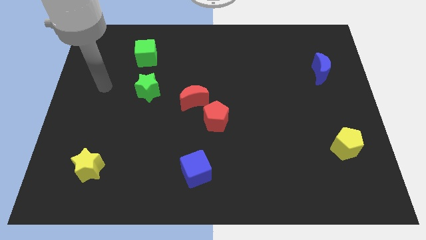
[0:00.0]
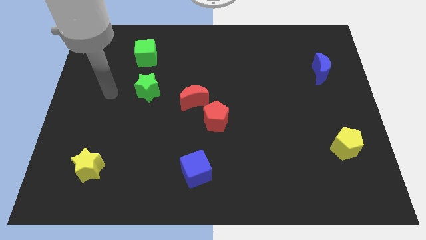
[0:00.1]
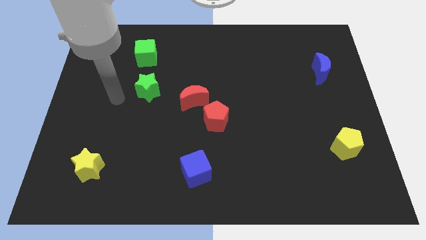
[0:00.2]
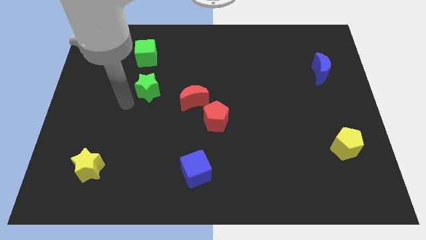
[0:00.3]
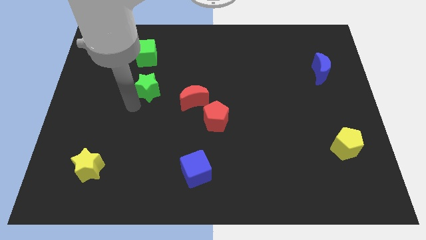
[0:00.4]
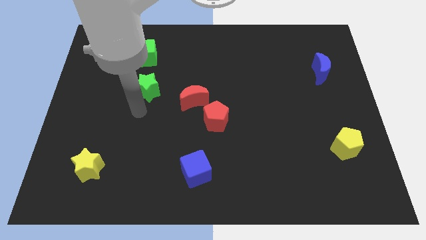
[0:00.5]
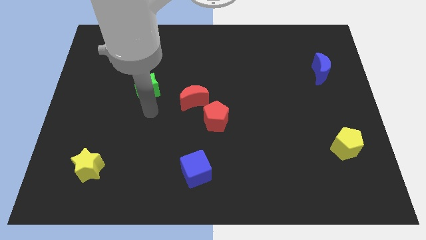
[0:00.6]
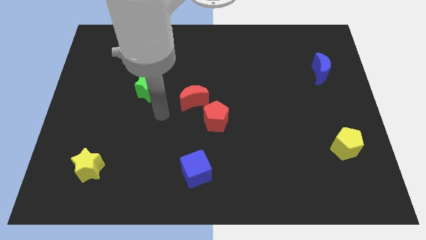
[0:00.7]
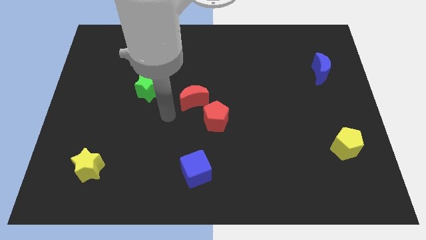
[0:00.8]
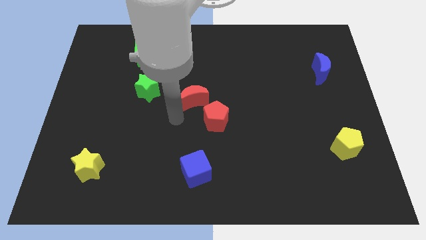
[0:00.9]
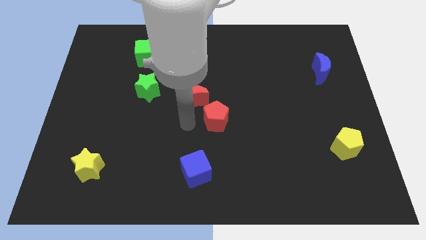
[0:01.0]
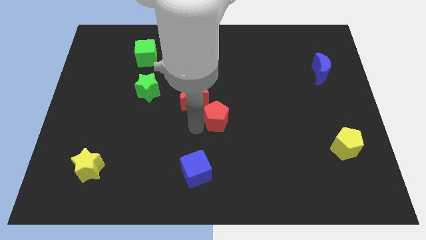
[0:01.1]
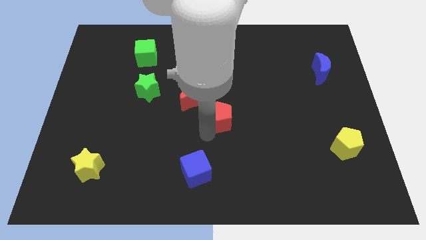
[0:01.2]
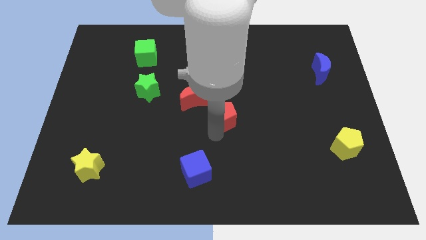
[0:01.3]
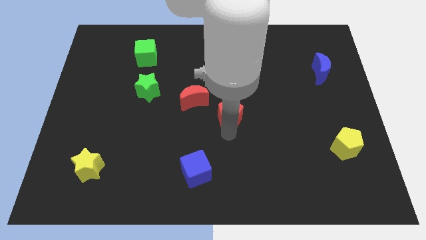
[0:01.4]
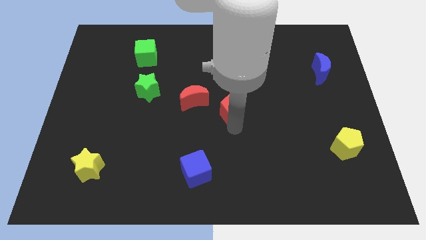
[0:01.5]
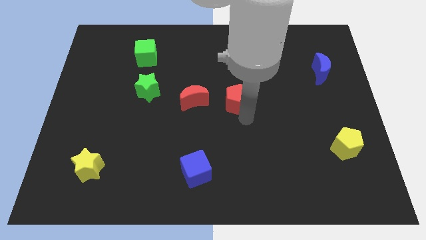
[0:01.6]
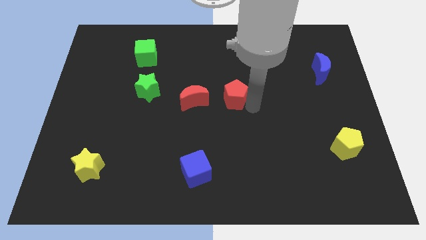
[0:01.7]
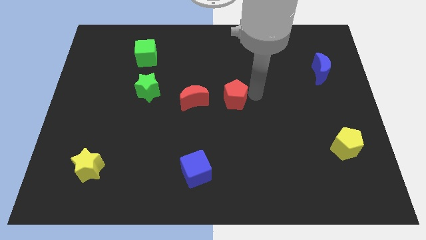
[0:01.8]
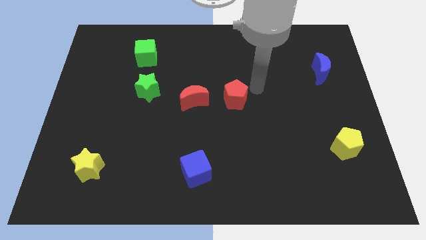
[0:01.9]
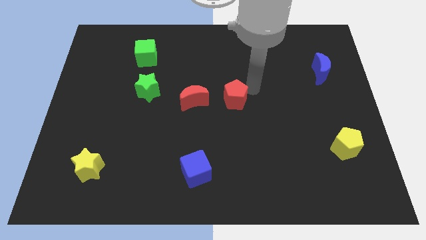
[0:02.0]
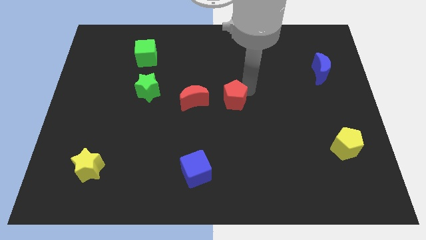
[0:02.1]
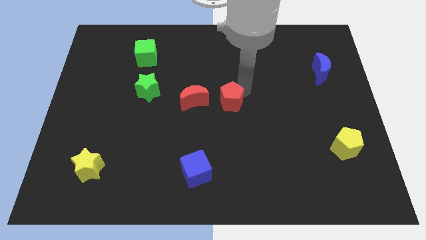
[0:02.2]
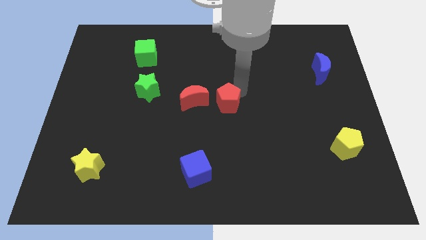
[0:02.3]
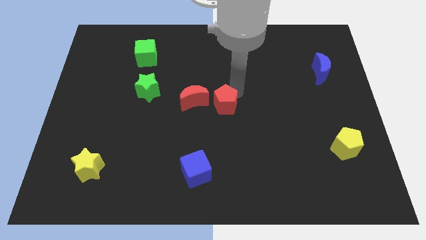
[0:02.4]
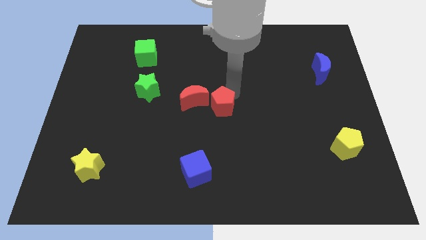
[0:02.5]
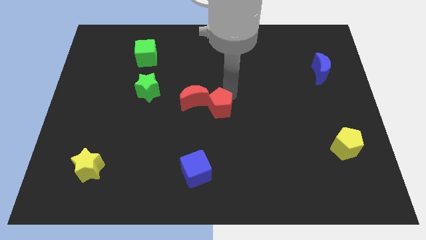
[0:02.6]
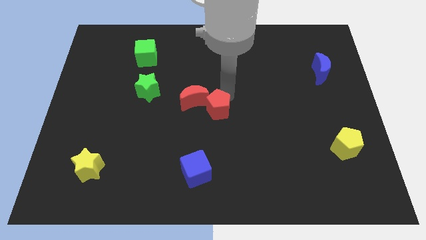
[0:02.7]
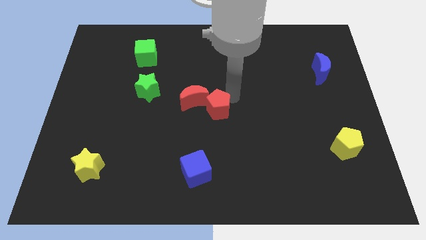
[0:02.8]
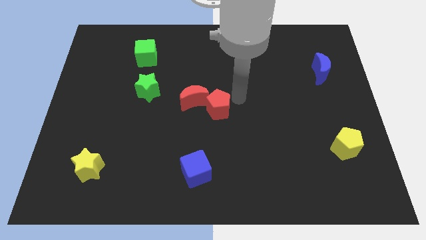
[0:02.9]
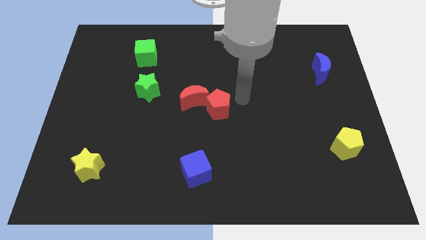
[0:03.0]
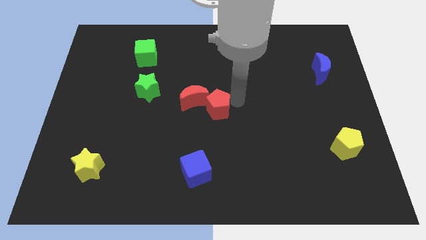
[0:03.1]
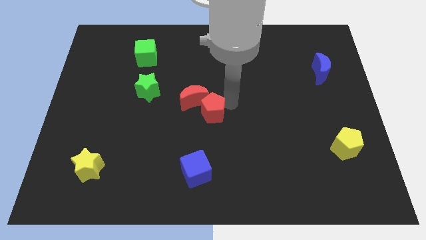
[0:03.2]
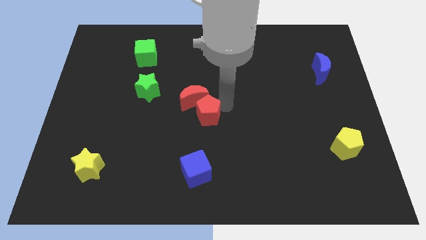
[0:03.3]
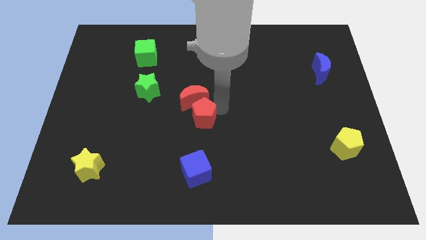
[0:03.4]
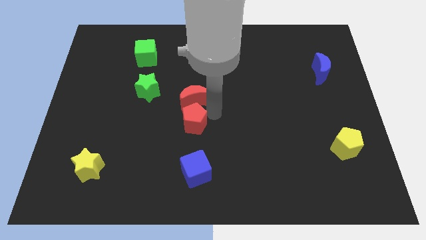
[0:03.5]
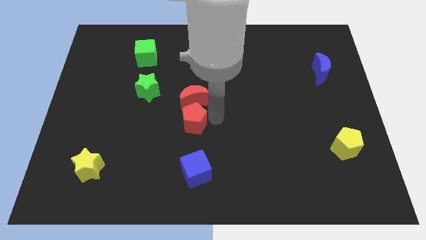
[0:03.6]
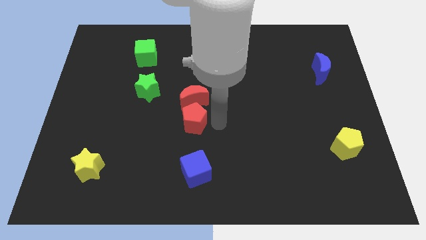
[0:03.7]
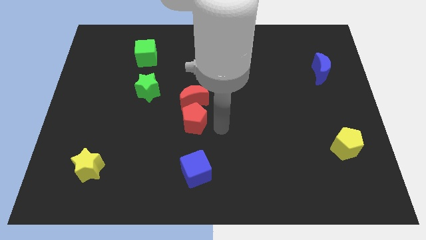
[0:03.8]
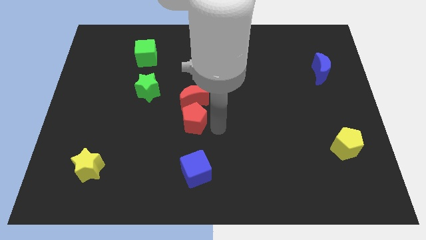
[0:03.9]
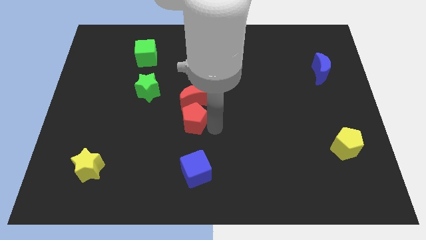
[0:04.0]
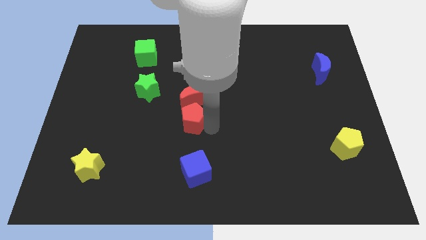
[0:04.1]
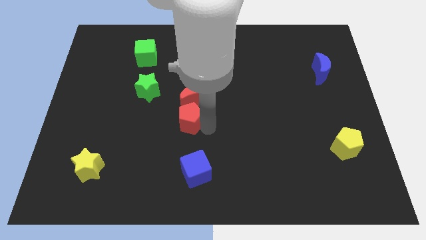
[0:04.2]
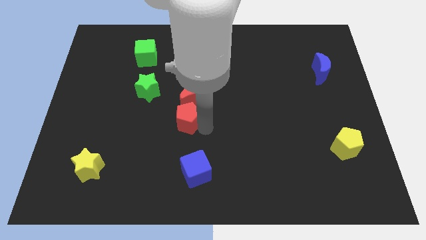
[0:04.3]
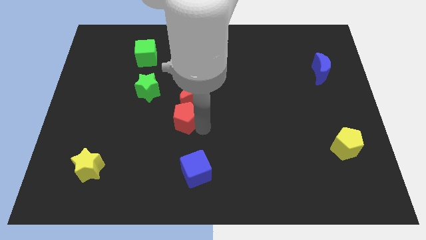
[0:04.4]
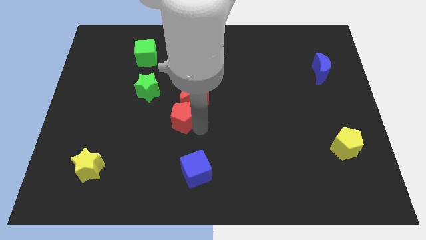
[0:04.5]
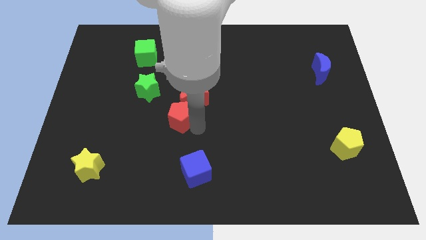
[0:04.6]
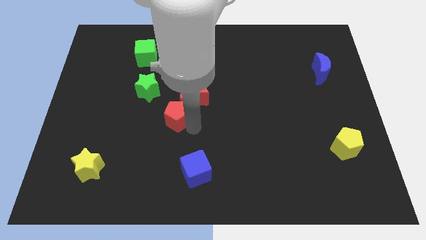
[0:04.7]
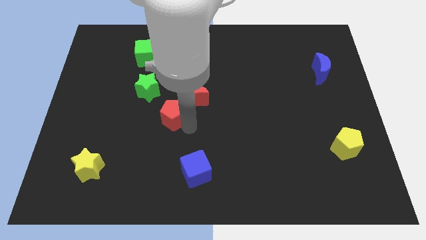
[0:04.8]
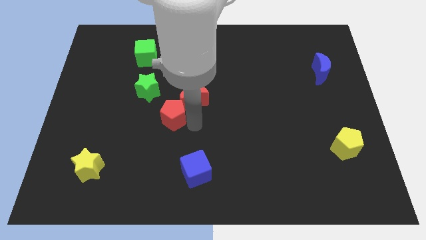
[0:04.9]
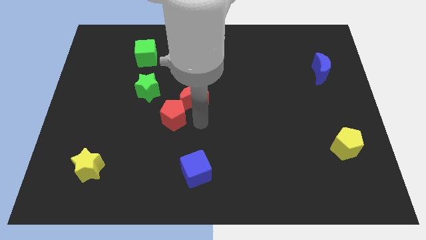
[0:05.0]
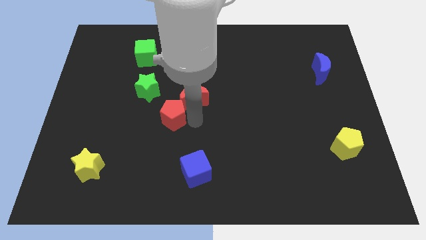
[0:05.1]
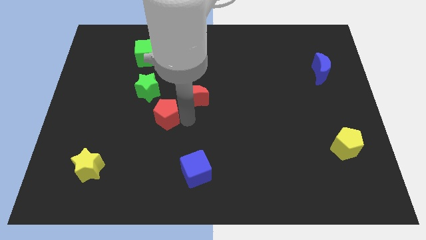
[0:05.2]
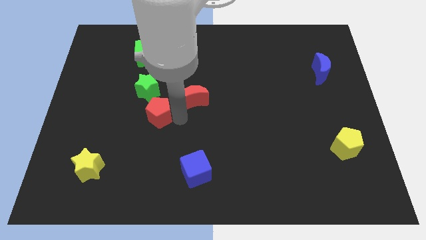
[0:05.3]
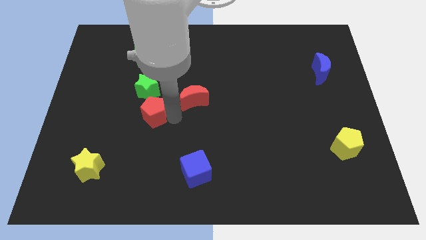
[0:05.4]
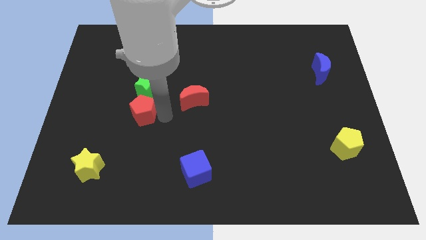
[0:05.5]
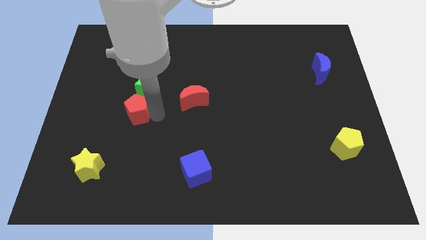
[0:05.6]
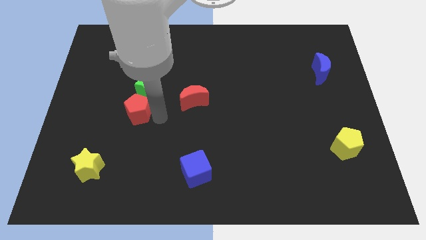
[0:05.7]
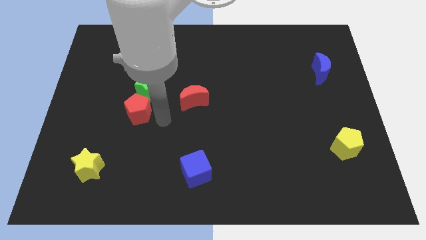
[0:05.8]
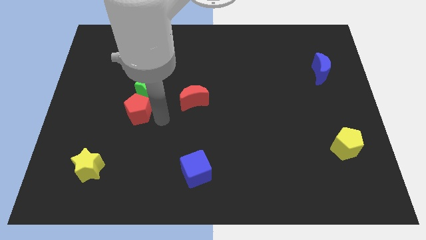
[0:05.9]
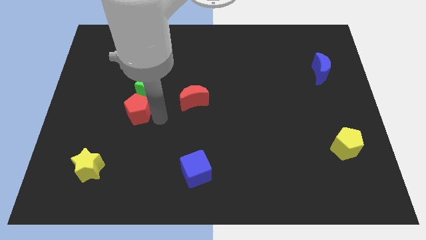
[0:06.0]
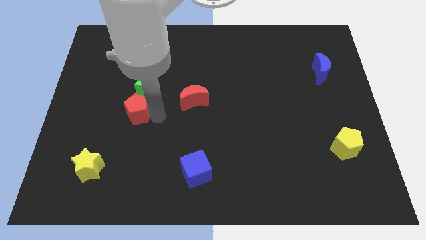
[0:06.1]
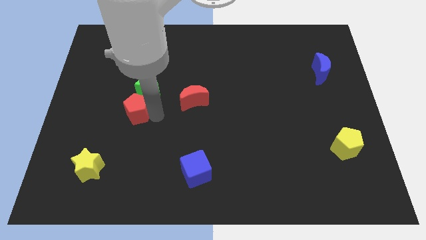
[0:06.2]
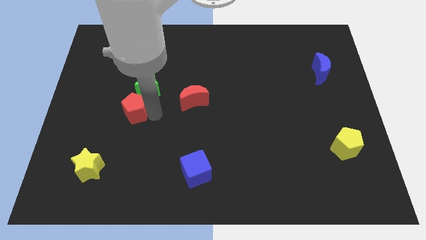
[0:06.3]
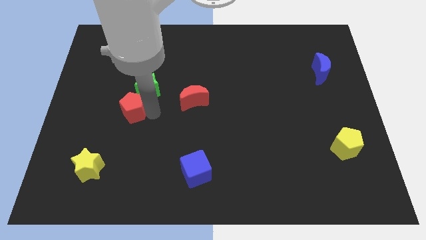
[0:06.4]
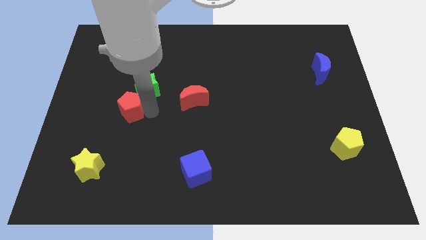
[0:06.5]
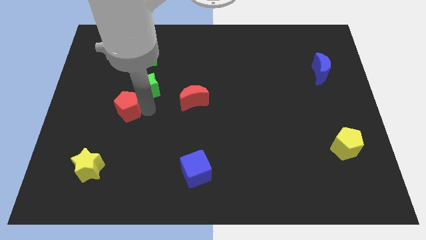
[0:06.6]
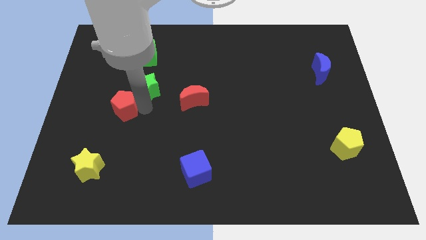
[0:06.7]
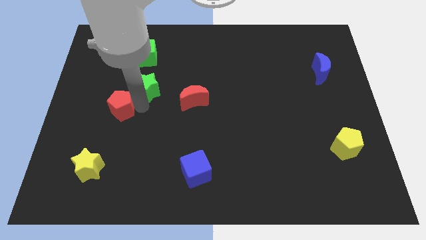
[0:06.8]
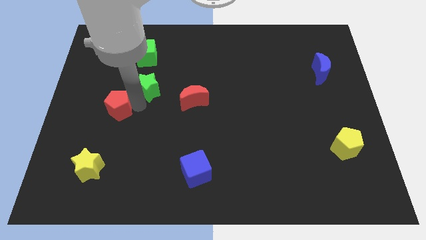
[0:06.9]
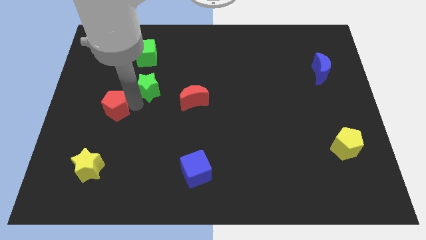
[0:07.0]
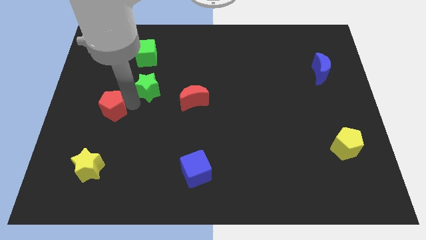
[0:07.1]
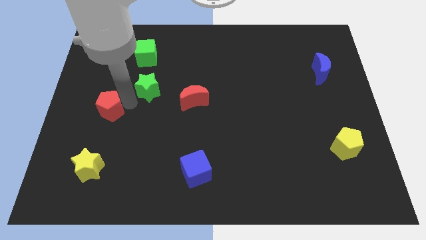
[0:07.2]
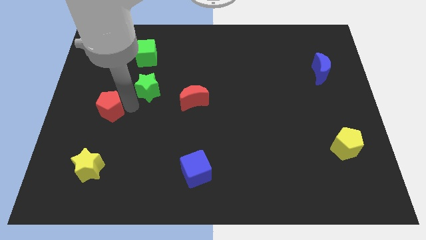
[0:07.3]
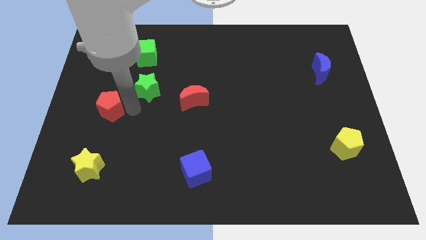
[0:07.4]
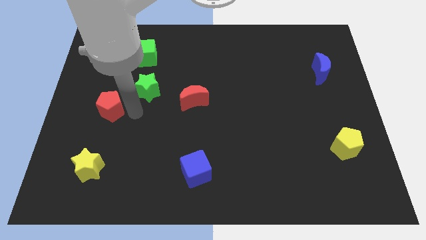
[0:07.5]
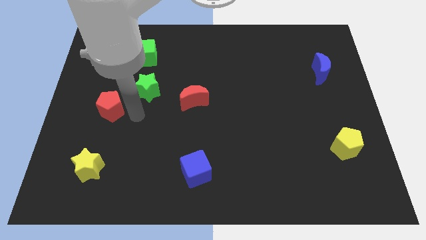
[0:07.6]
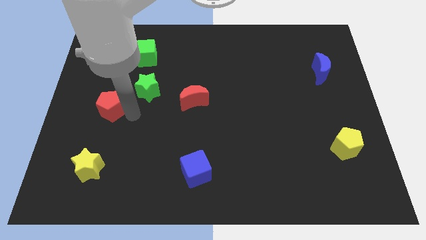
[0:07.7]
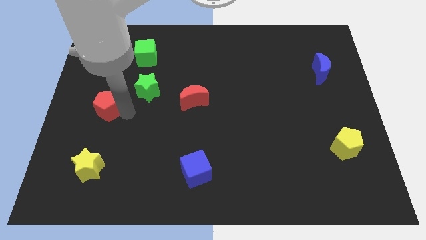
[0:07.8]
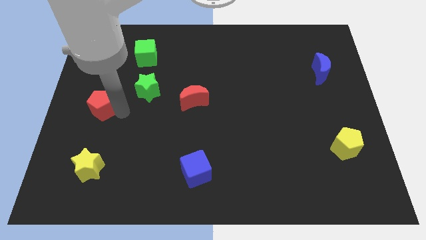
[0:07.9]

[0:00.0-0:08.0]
slide the red pentagon to the center left
